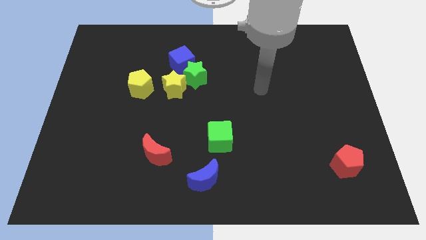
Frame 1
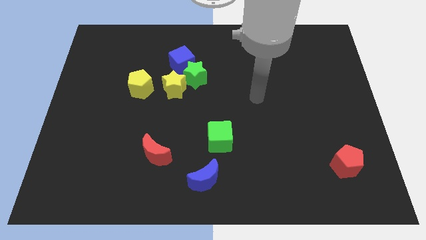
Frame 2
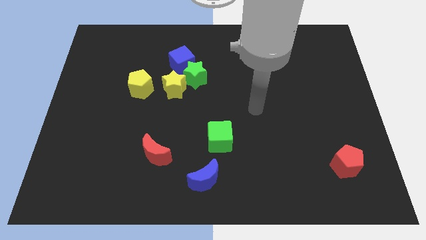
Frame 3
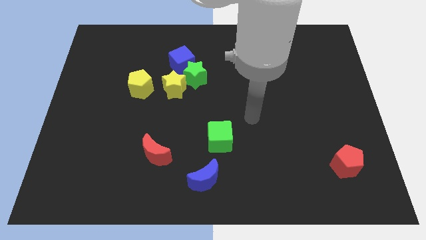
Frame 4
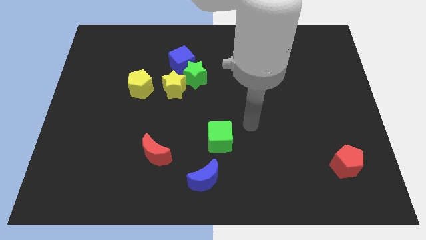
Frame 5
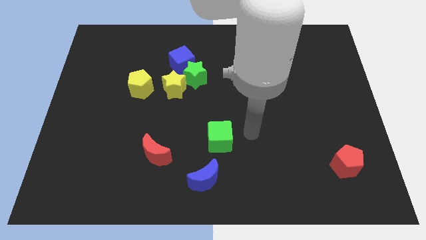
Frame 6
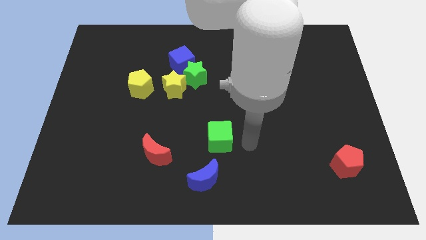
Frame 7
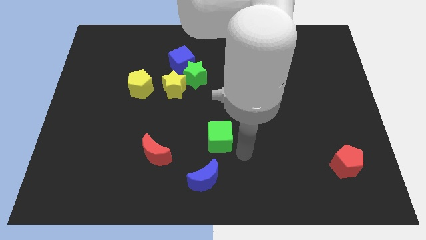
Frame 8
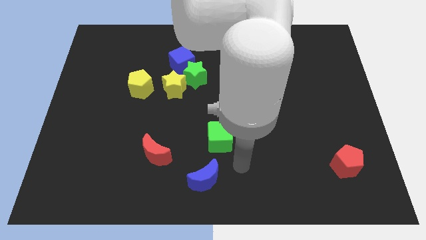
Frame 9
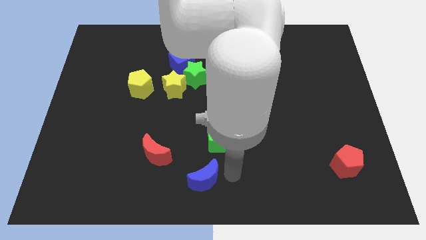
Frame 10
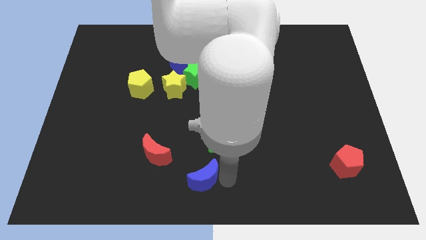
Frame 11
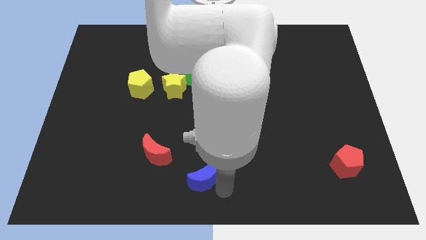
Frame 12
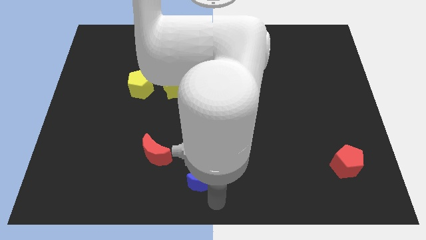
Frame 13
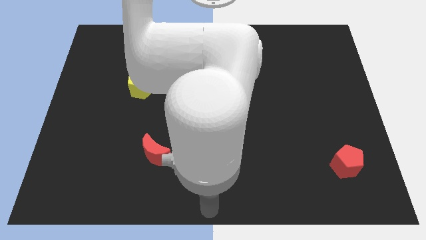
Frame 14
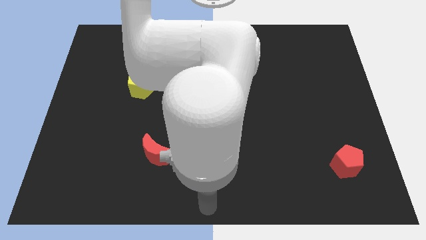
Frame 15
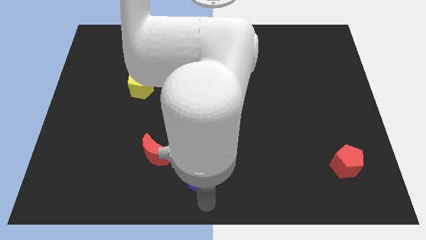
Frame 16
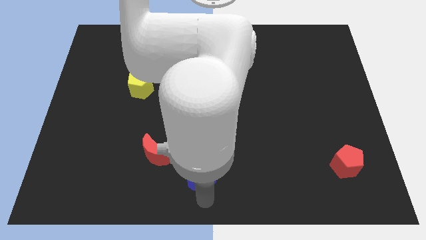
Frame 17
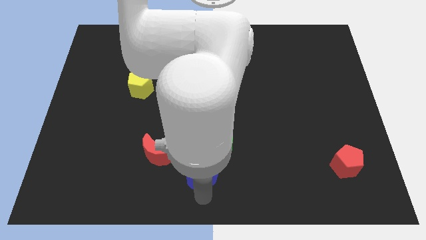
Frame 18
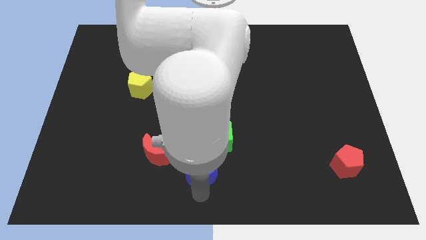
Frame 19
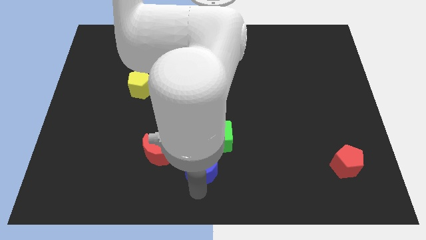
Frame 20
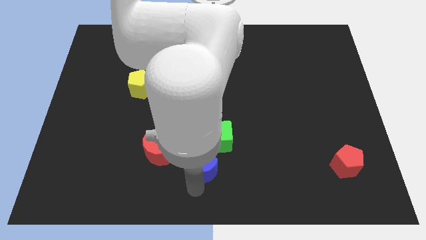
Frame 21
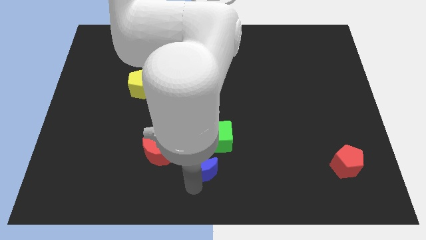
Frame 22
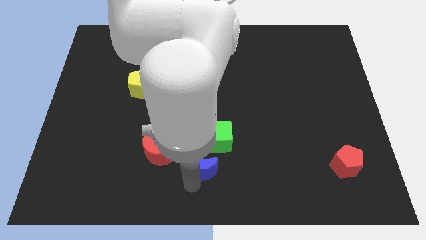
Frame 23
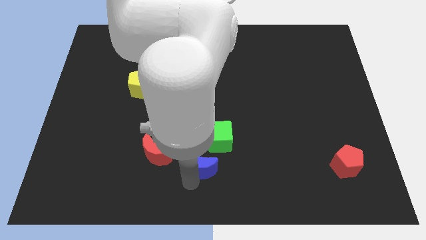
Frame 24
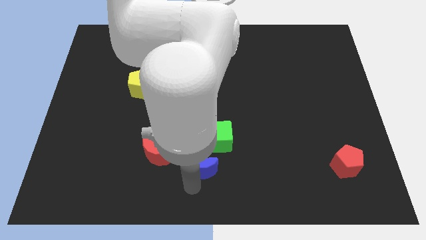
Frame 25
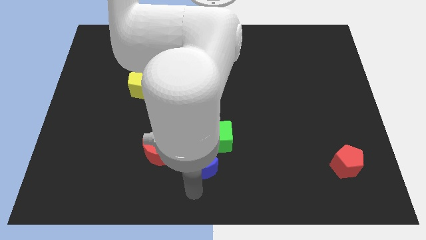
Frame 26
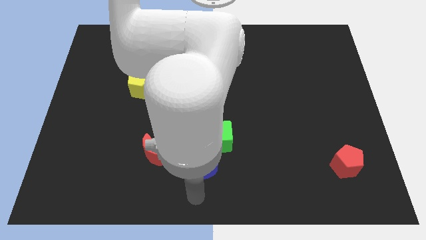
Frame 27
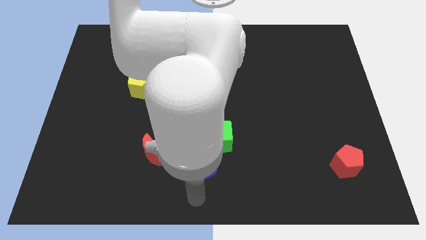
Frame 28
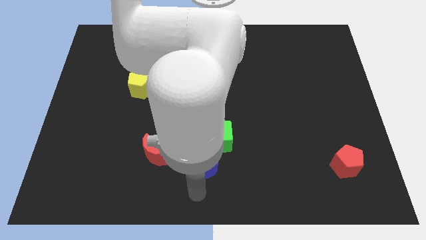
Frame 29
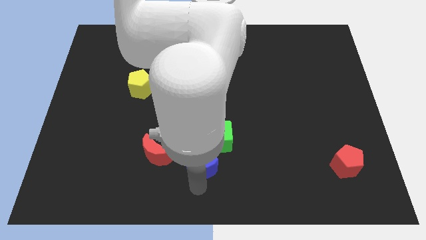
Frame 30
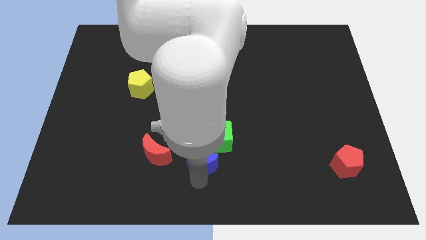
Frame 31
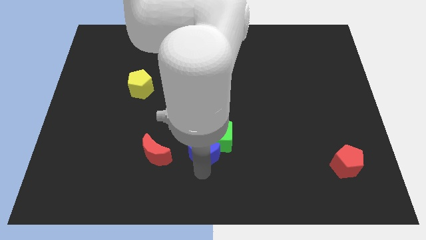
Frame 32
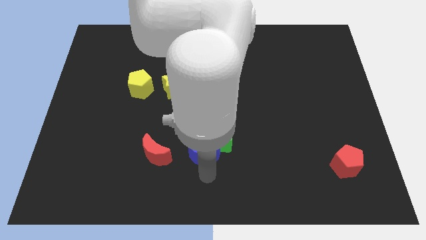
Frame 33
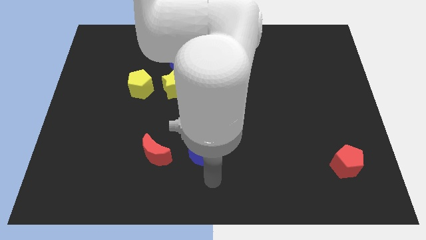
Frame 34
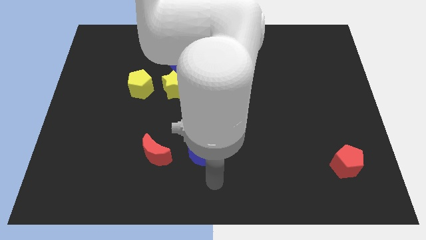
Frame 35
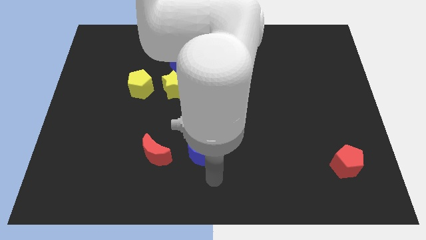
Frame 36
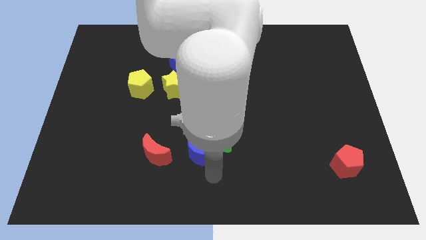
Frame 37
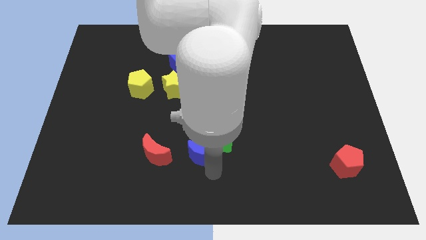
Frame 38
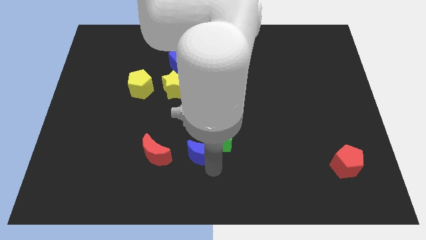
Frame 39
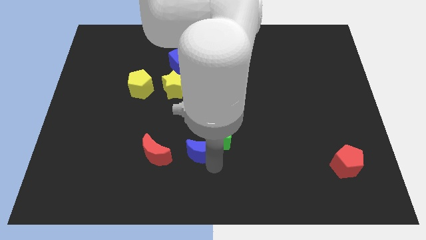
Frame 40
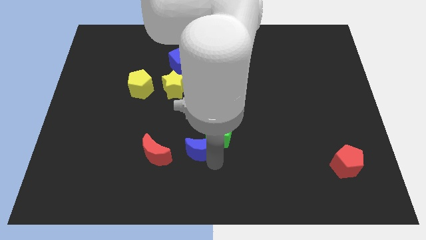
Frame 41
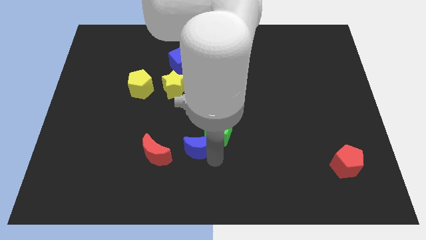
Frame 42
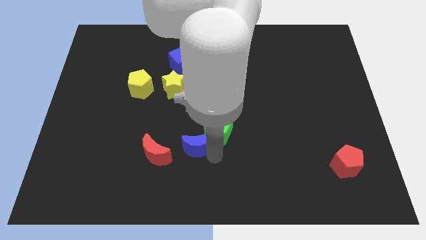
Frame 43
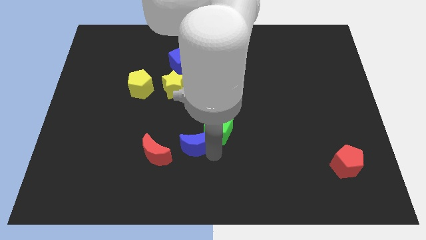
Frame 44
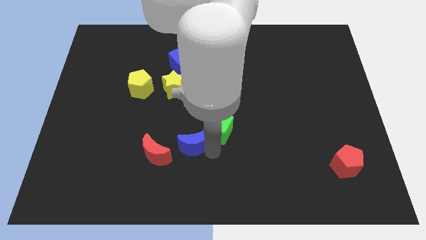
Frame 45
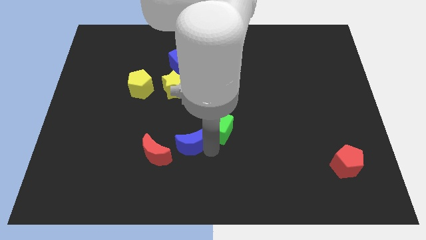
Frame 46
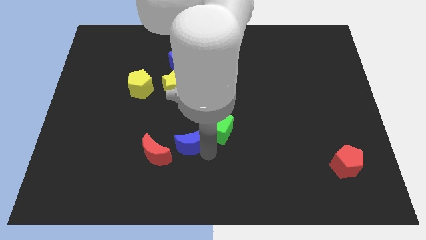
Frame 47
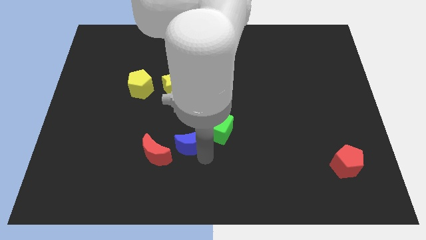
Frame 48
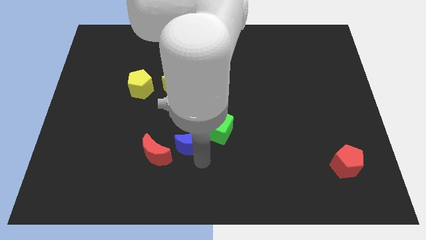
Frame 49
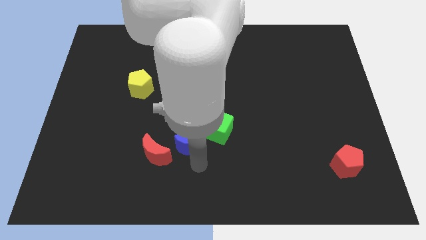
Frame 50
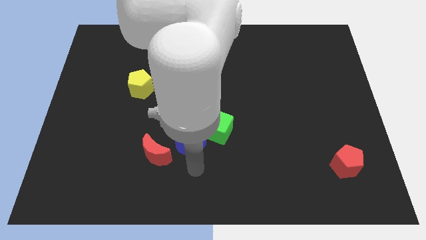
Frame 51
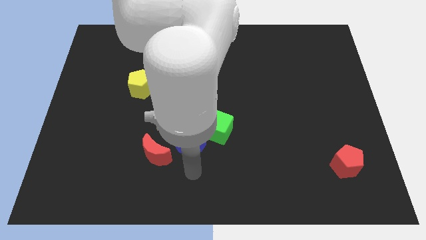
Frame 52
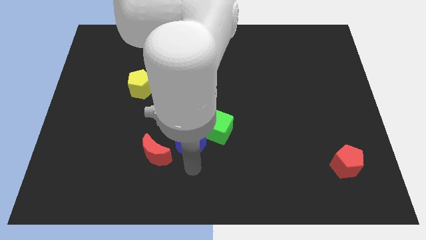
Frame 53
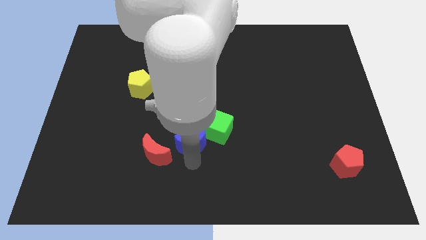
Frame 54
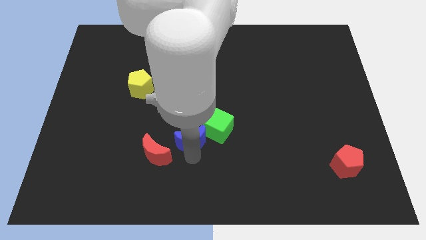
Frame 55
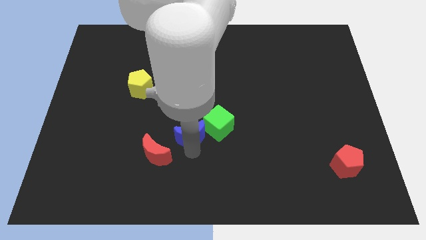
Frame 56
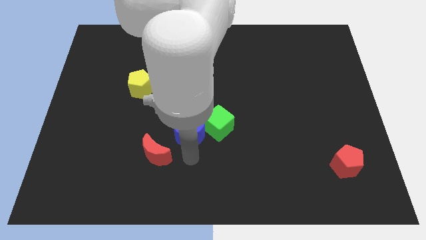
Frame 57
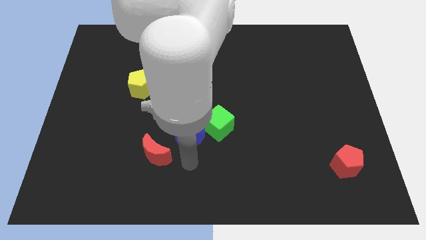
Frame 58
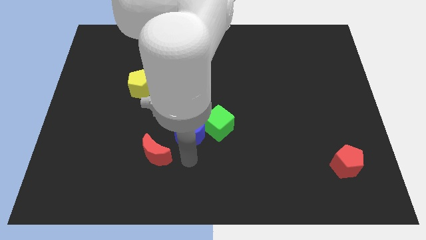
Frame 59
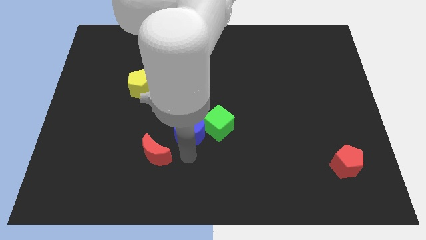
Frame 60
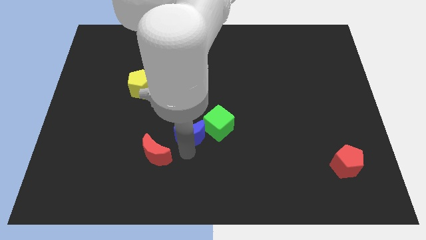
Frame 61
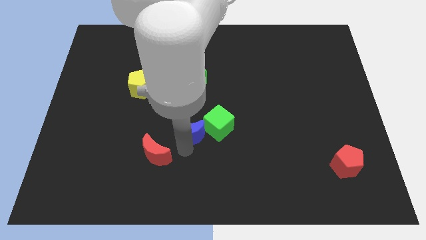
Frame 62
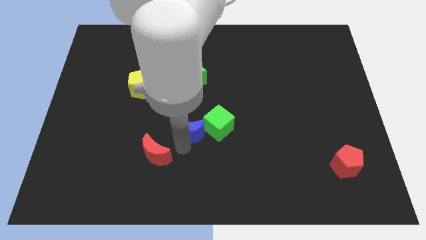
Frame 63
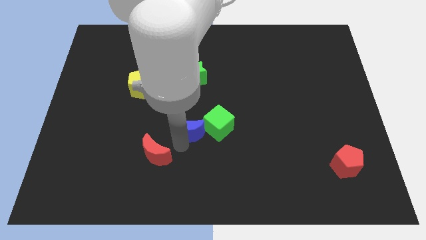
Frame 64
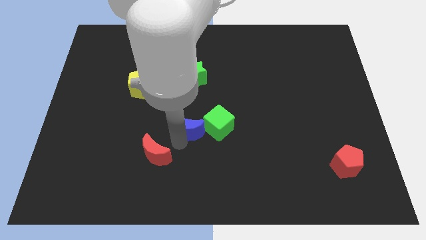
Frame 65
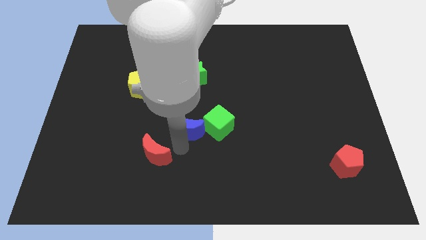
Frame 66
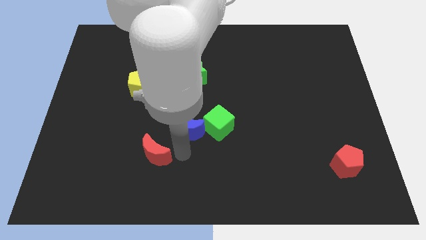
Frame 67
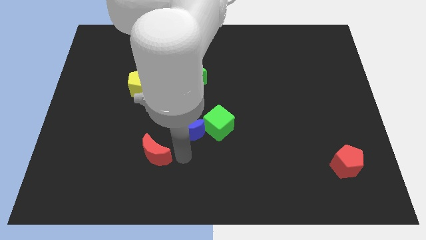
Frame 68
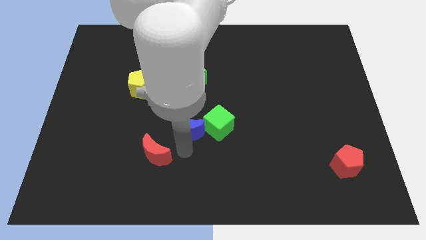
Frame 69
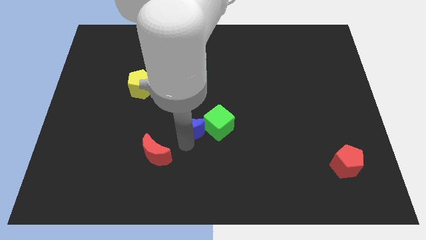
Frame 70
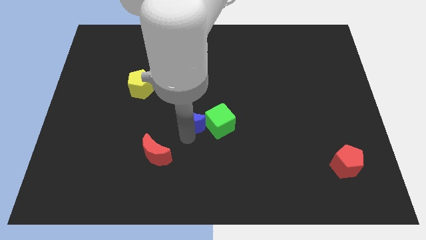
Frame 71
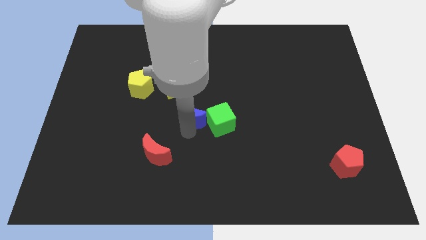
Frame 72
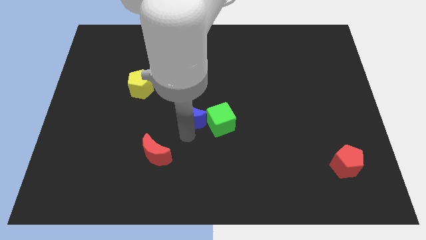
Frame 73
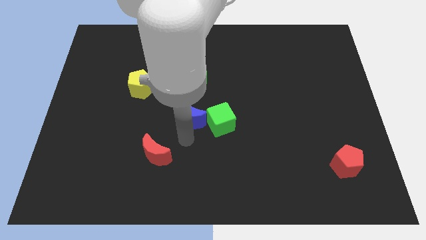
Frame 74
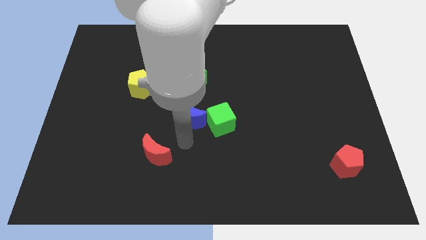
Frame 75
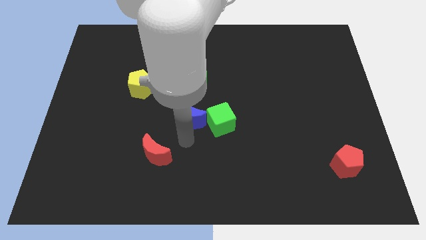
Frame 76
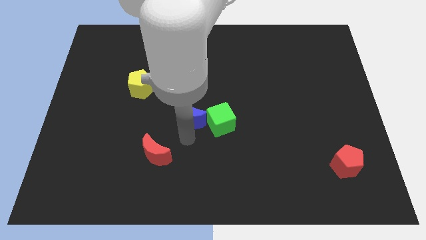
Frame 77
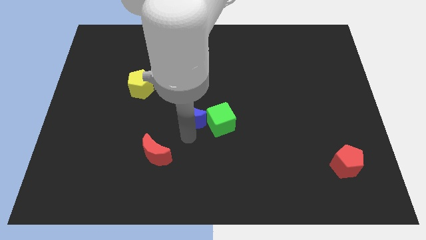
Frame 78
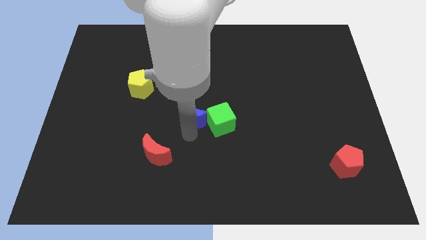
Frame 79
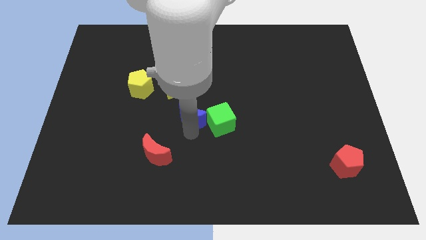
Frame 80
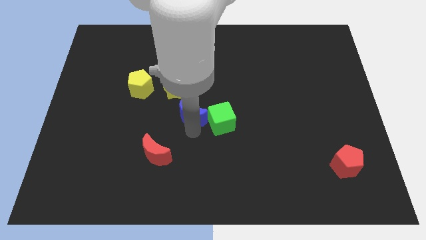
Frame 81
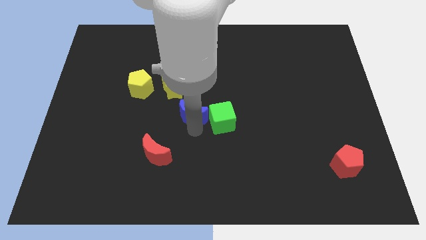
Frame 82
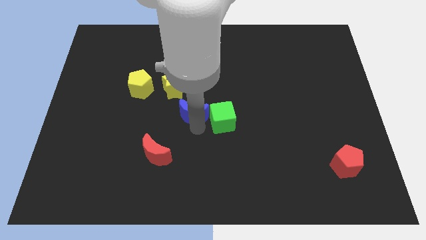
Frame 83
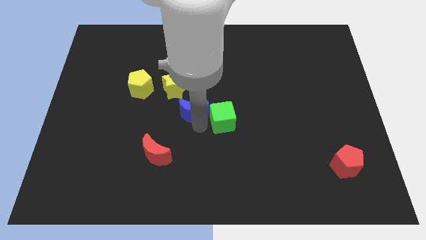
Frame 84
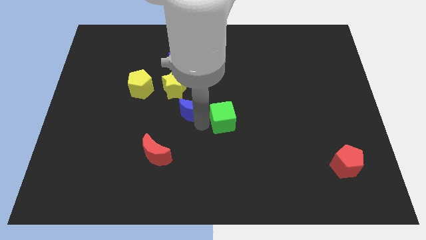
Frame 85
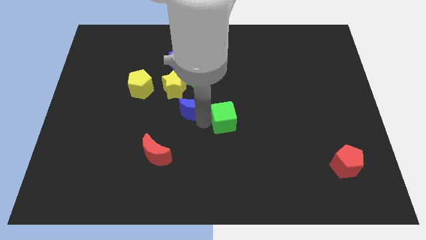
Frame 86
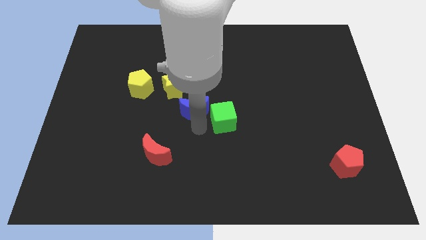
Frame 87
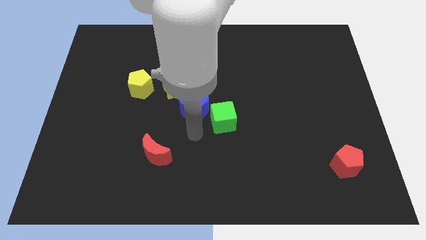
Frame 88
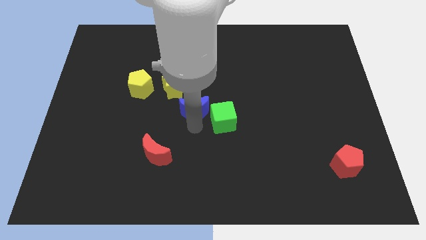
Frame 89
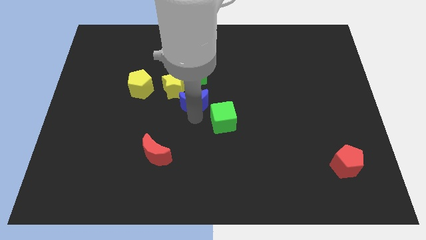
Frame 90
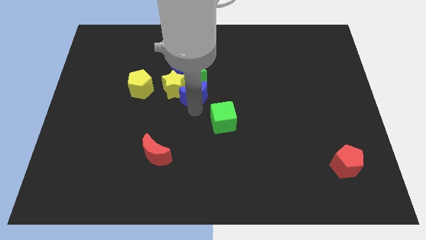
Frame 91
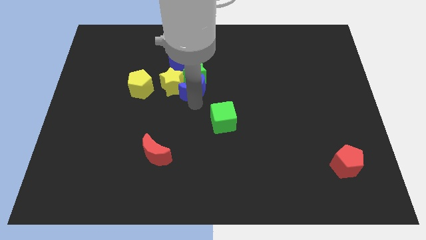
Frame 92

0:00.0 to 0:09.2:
push the blue moon towards the green star
